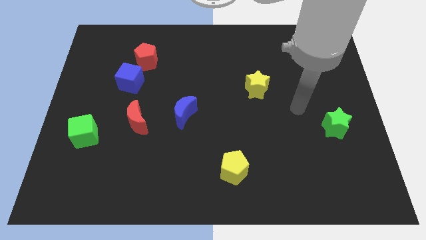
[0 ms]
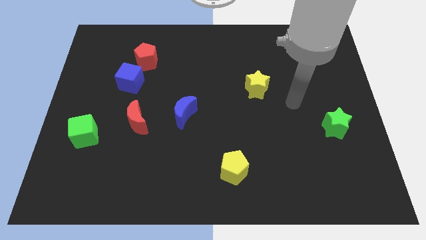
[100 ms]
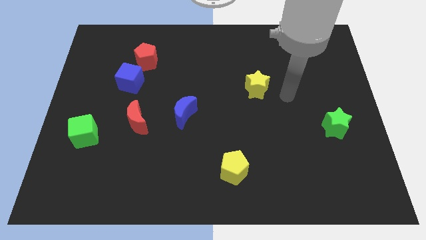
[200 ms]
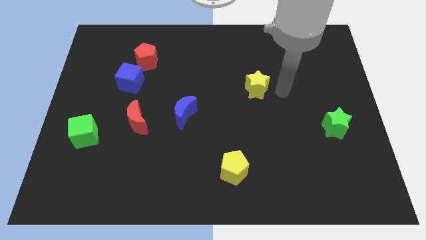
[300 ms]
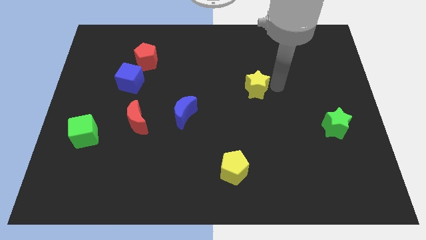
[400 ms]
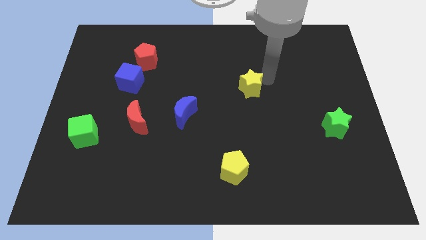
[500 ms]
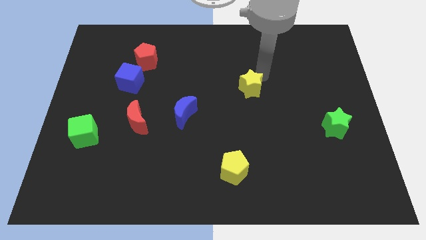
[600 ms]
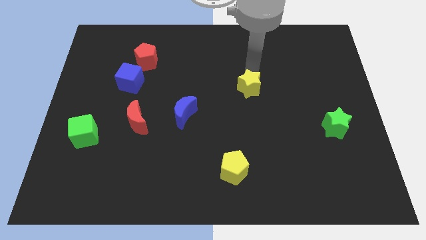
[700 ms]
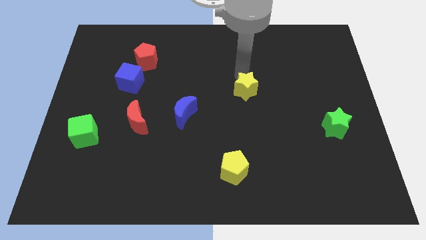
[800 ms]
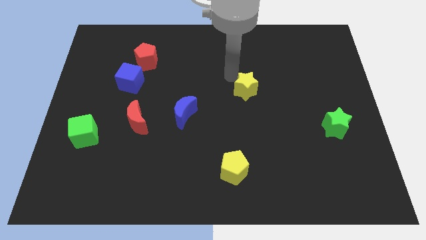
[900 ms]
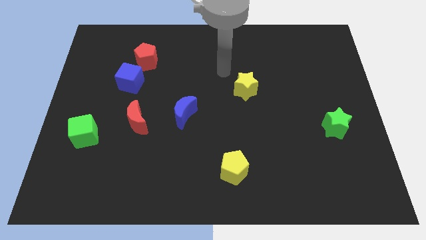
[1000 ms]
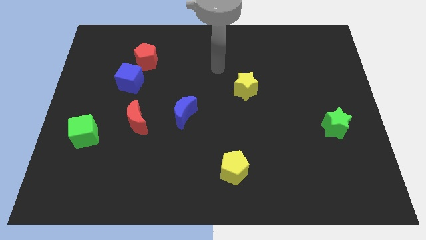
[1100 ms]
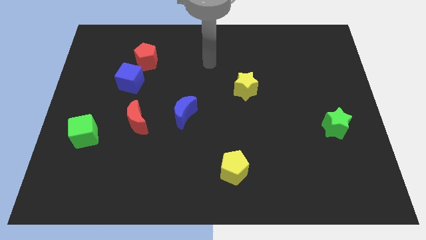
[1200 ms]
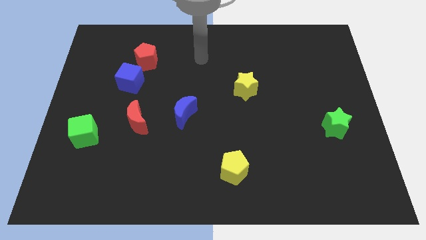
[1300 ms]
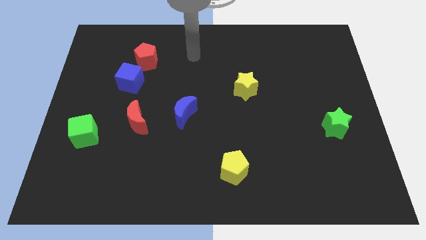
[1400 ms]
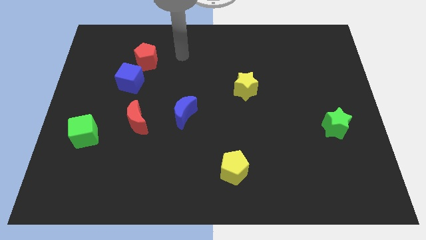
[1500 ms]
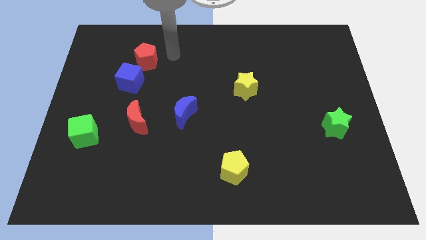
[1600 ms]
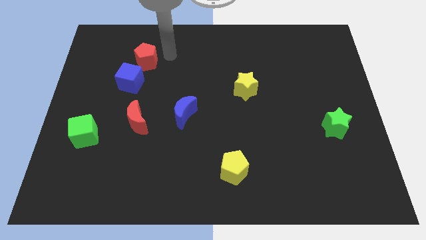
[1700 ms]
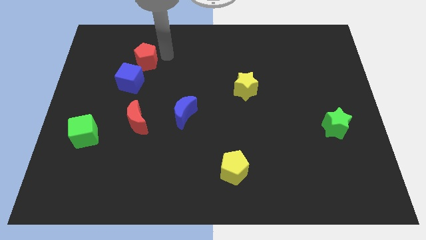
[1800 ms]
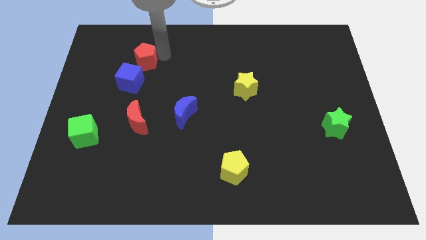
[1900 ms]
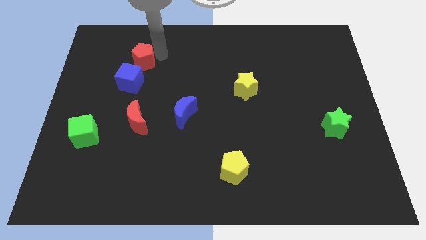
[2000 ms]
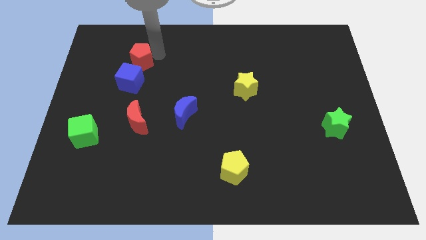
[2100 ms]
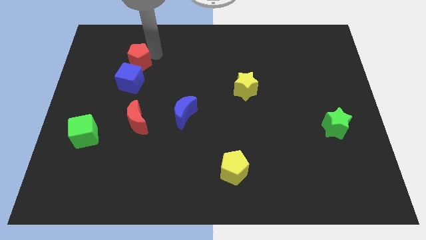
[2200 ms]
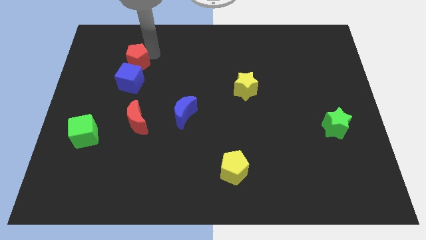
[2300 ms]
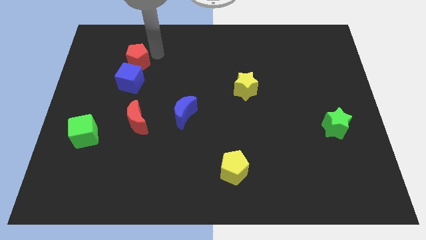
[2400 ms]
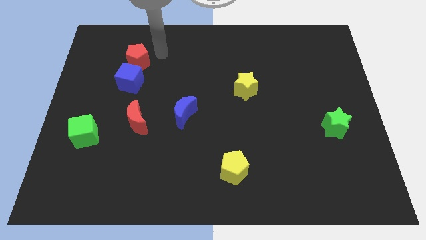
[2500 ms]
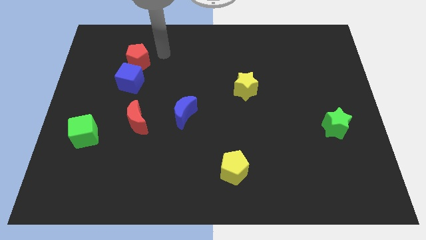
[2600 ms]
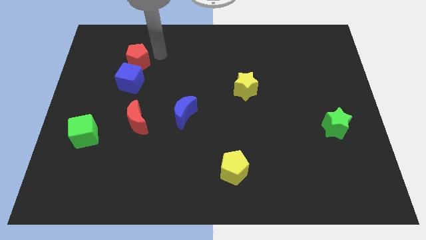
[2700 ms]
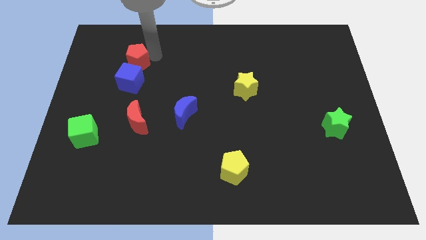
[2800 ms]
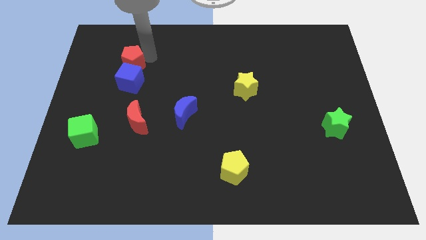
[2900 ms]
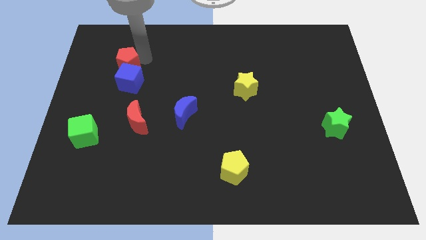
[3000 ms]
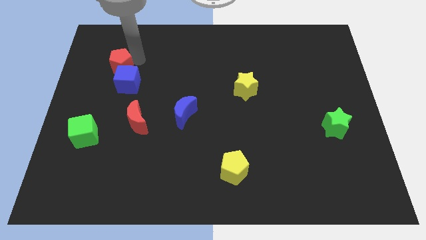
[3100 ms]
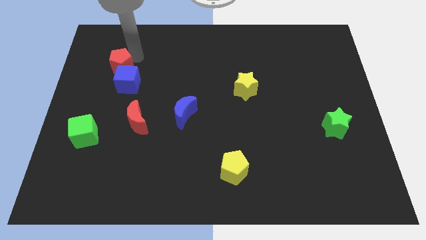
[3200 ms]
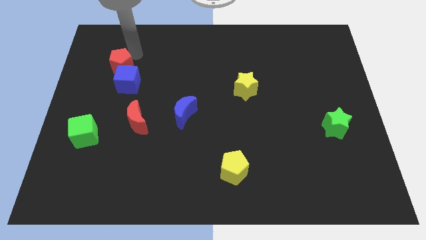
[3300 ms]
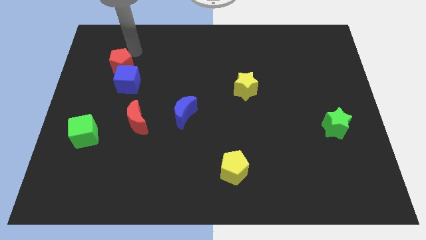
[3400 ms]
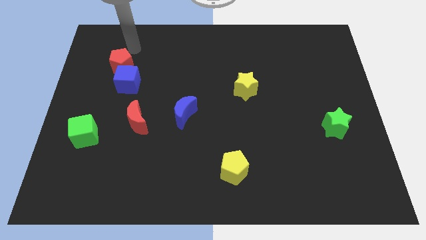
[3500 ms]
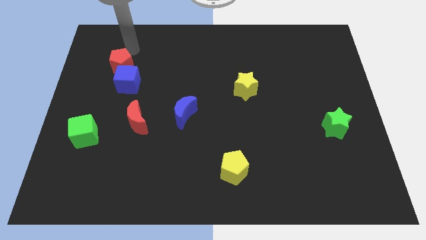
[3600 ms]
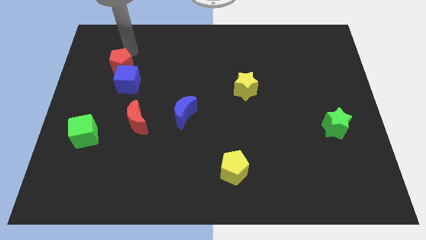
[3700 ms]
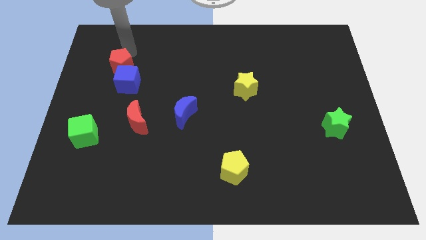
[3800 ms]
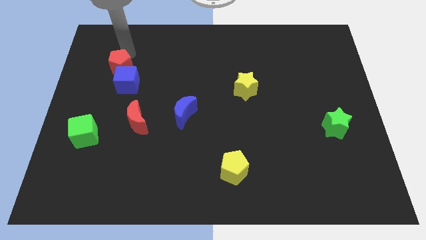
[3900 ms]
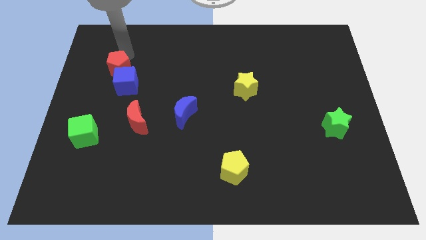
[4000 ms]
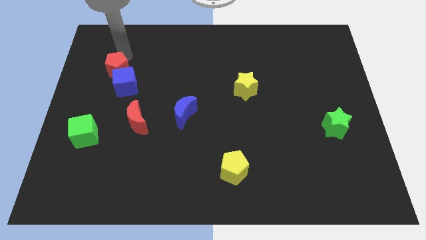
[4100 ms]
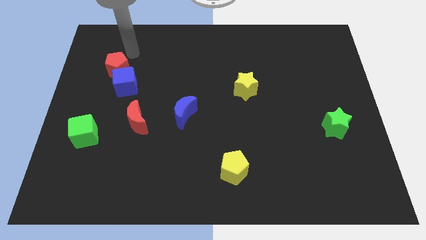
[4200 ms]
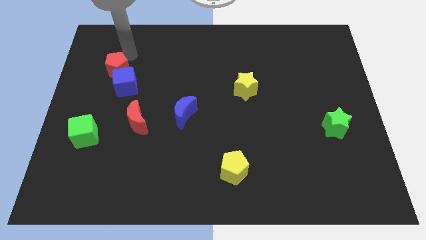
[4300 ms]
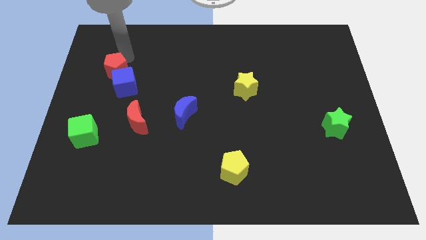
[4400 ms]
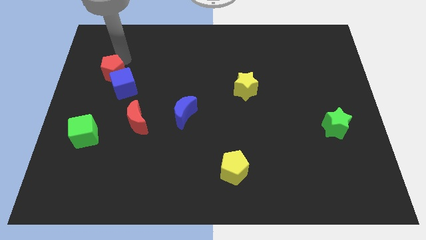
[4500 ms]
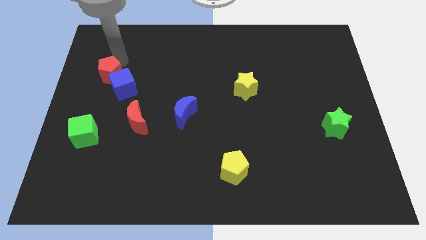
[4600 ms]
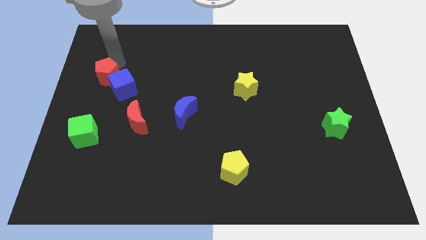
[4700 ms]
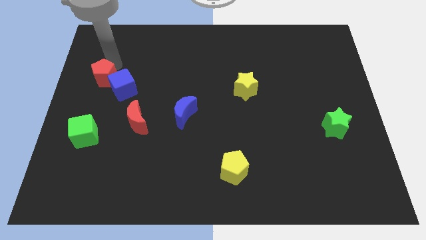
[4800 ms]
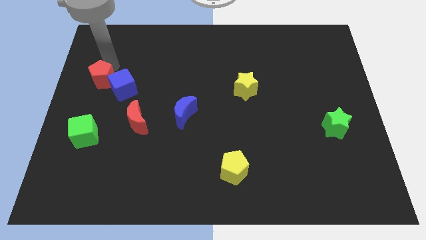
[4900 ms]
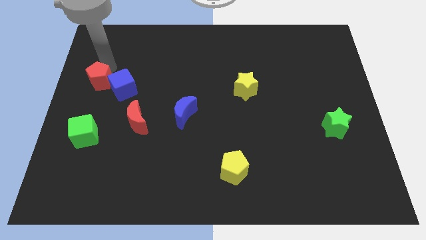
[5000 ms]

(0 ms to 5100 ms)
put the red pentagon above the green cube
